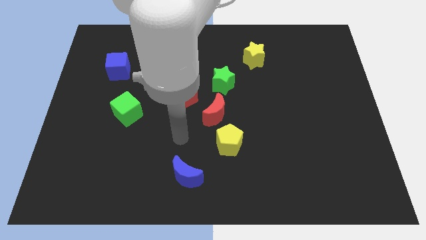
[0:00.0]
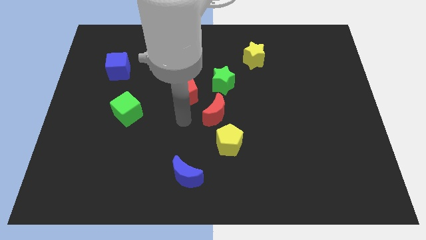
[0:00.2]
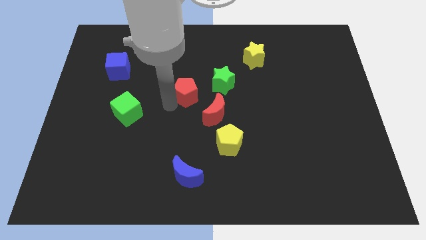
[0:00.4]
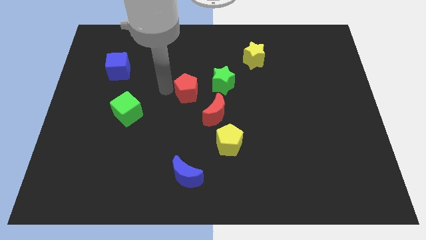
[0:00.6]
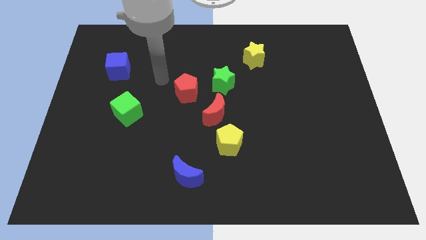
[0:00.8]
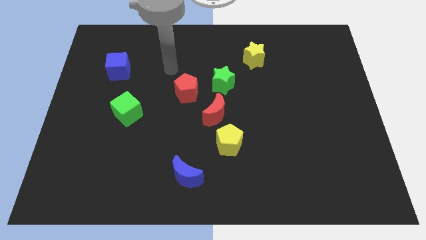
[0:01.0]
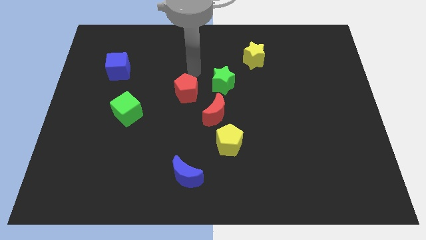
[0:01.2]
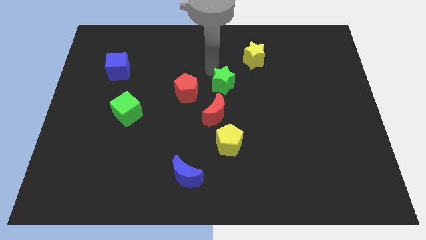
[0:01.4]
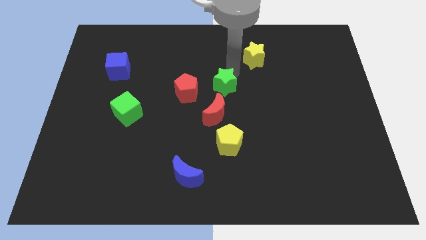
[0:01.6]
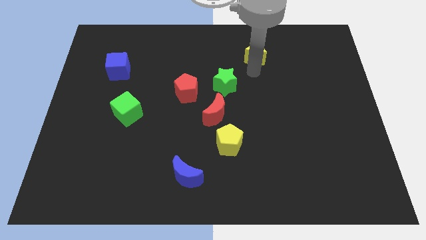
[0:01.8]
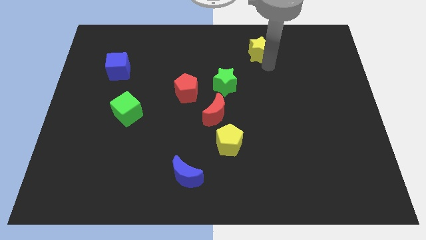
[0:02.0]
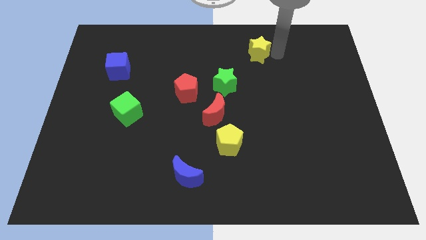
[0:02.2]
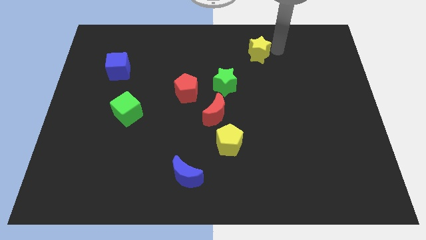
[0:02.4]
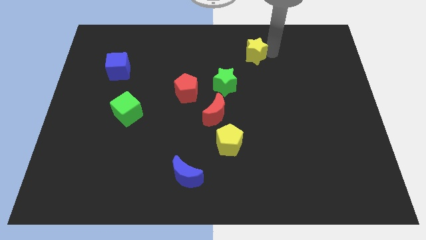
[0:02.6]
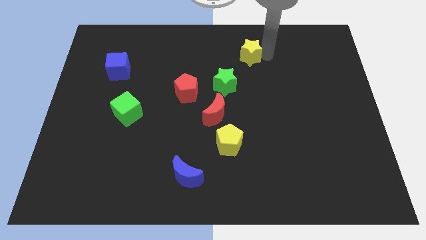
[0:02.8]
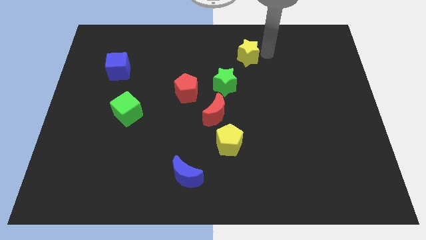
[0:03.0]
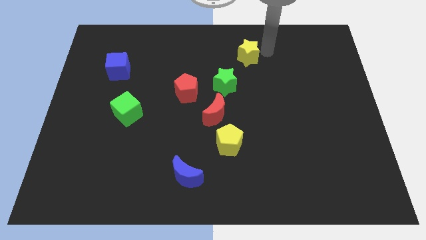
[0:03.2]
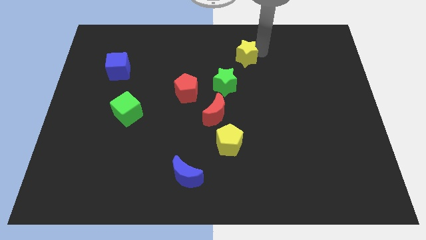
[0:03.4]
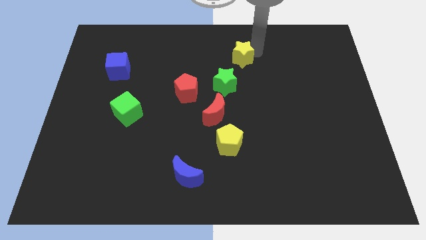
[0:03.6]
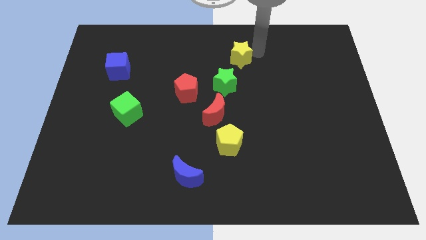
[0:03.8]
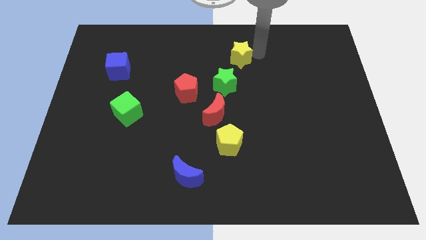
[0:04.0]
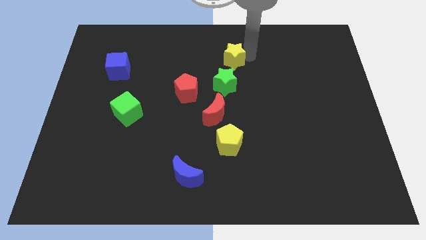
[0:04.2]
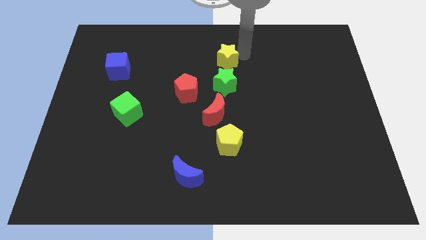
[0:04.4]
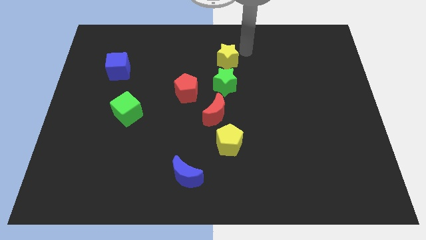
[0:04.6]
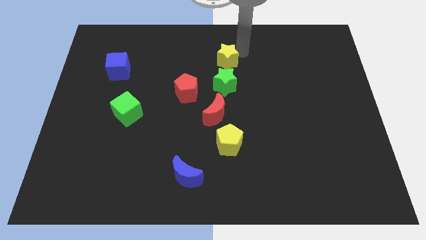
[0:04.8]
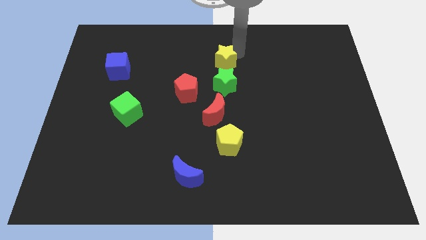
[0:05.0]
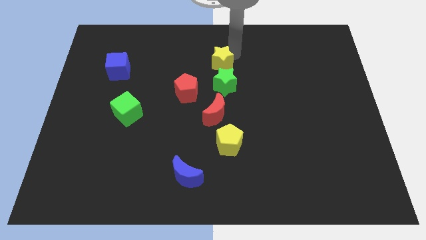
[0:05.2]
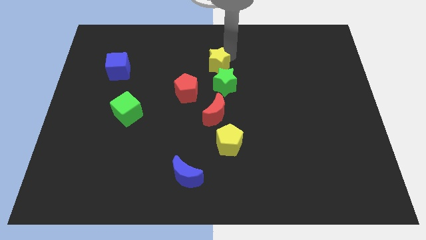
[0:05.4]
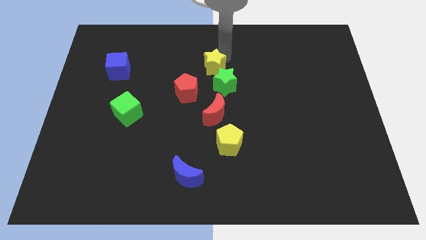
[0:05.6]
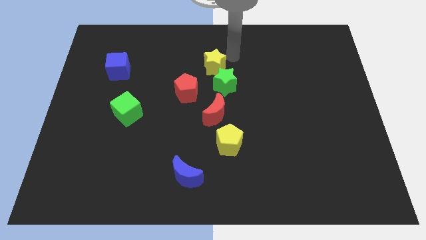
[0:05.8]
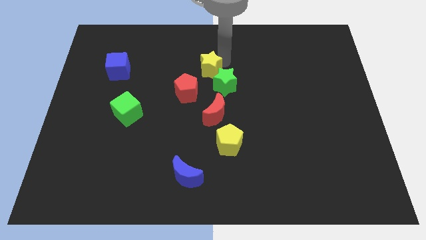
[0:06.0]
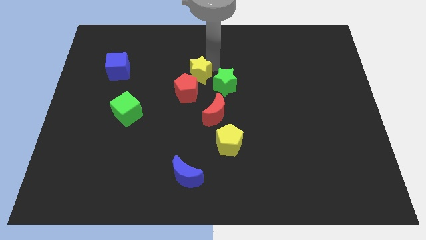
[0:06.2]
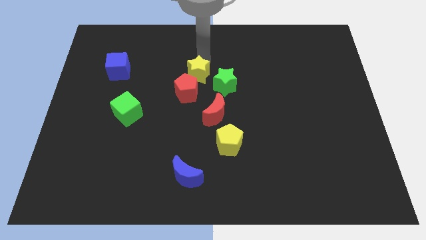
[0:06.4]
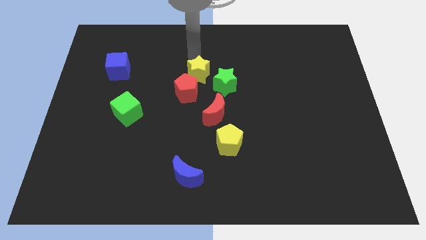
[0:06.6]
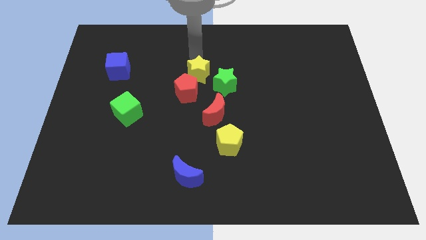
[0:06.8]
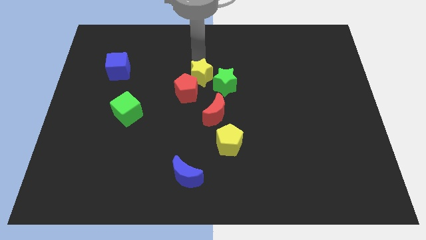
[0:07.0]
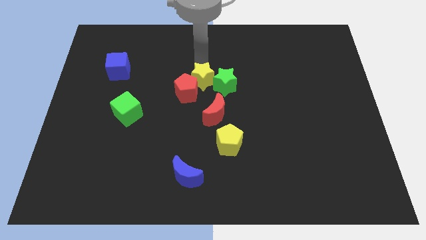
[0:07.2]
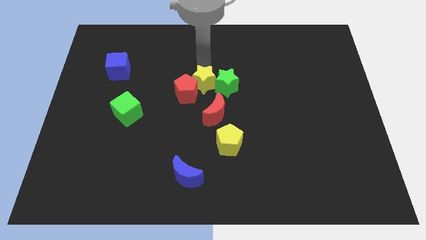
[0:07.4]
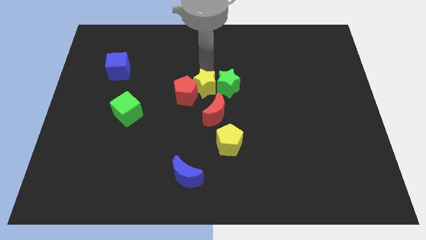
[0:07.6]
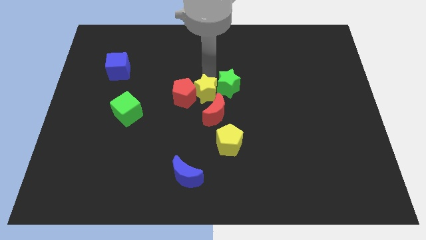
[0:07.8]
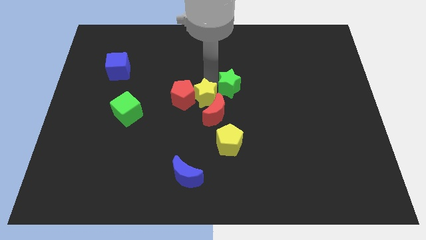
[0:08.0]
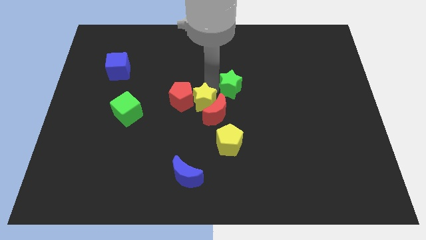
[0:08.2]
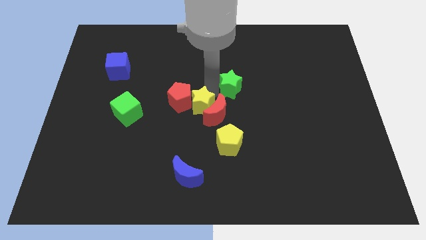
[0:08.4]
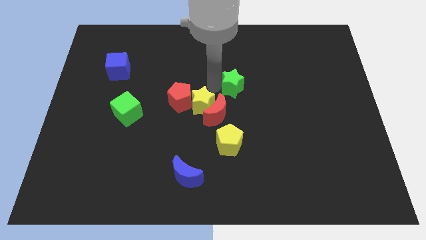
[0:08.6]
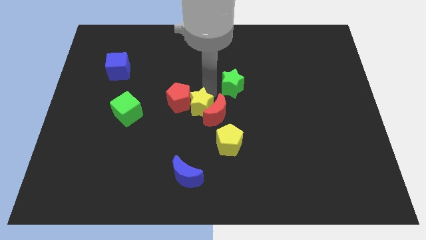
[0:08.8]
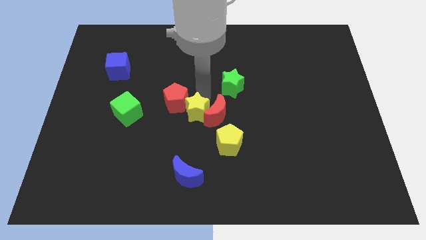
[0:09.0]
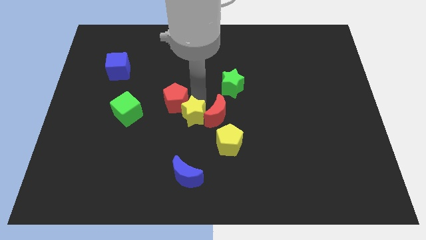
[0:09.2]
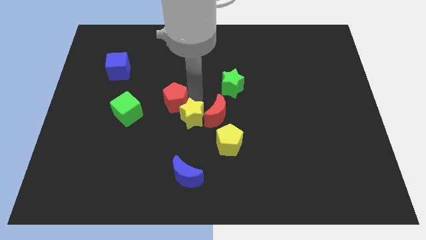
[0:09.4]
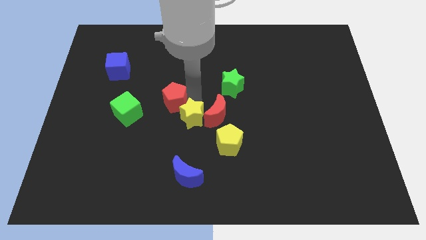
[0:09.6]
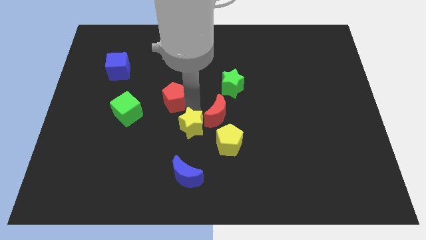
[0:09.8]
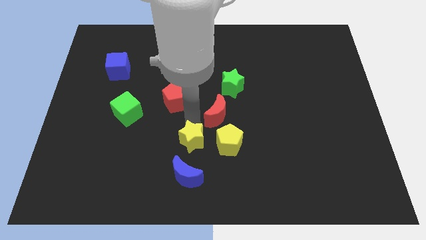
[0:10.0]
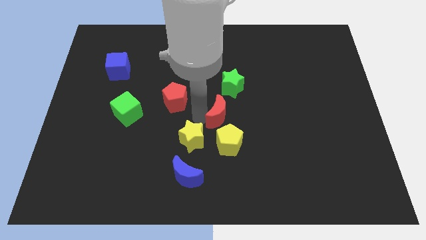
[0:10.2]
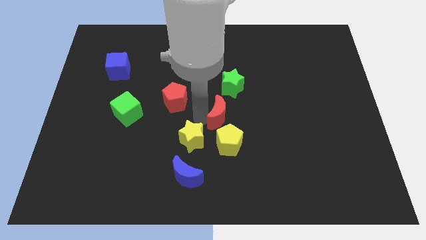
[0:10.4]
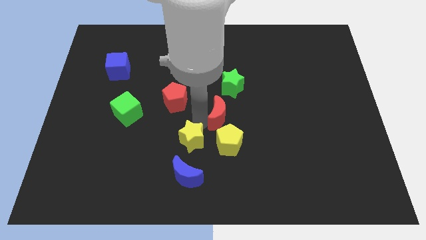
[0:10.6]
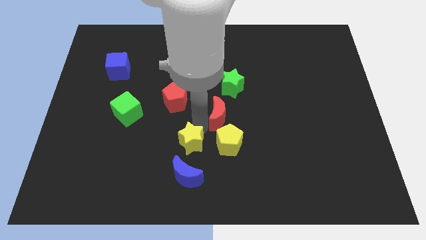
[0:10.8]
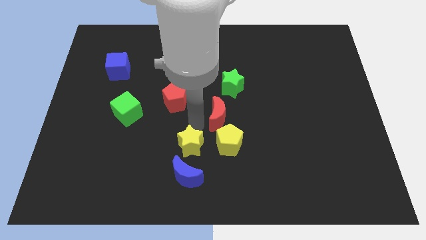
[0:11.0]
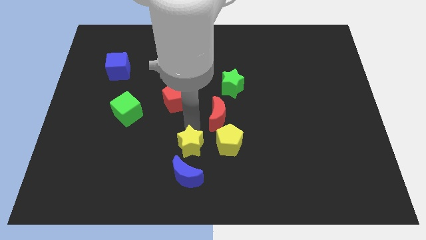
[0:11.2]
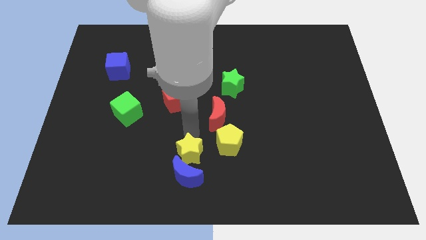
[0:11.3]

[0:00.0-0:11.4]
push the yellow star close to the blue moon

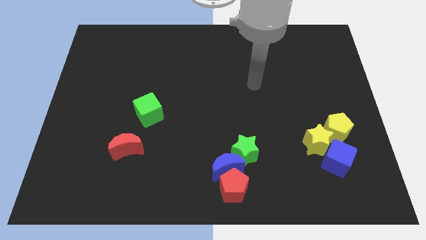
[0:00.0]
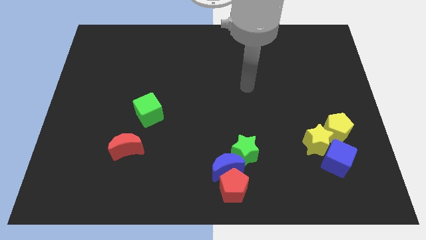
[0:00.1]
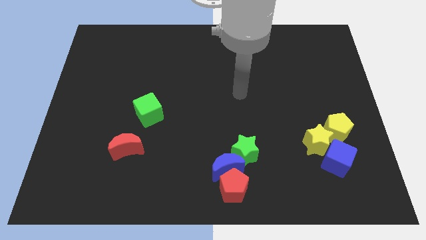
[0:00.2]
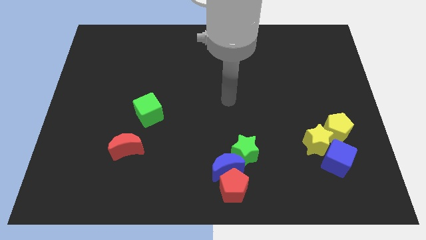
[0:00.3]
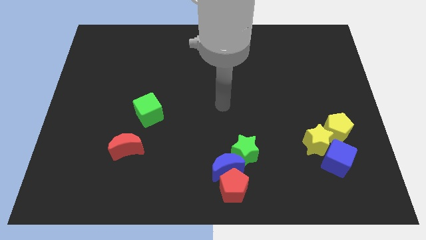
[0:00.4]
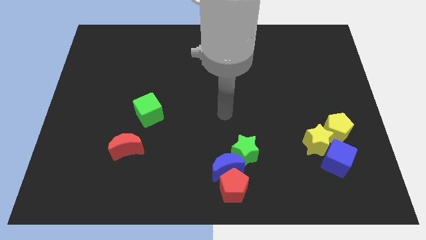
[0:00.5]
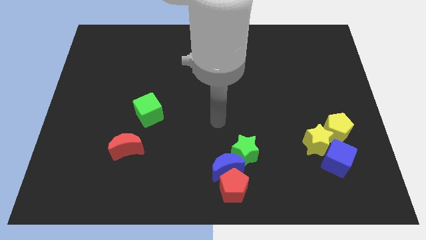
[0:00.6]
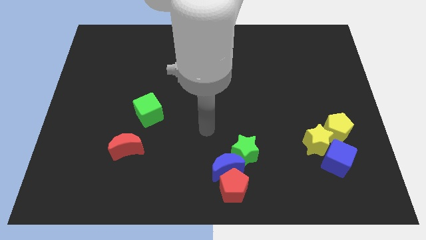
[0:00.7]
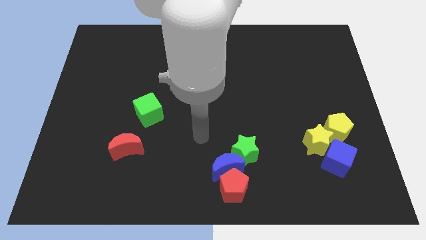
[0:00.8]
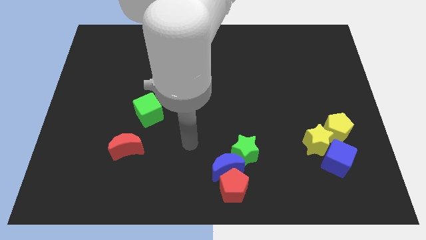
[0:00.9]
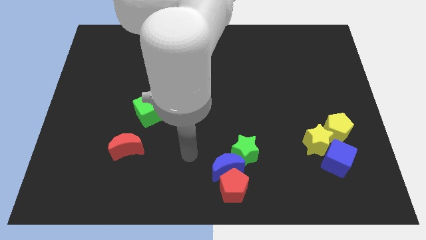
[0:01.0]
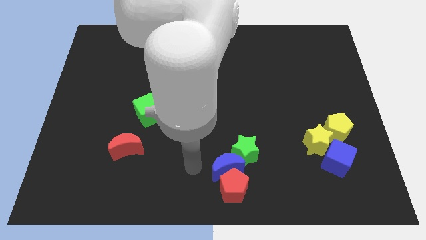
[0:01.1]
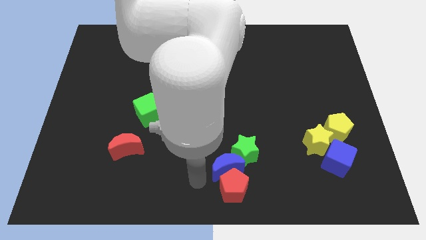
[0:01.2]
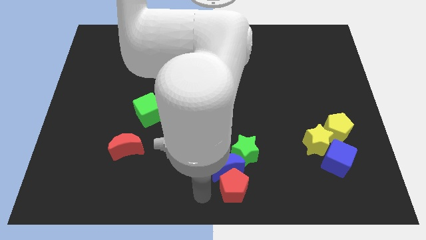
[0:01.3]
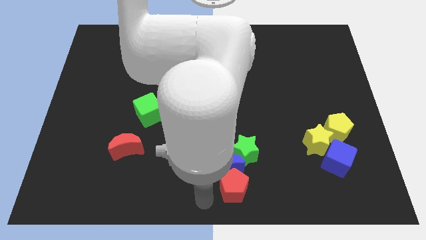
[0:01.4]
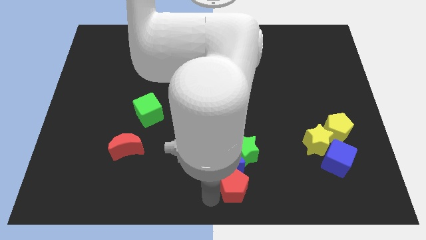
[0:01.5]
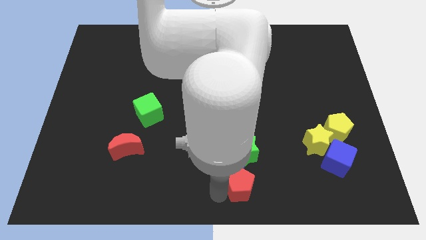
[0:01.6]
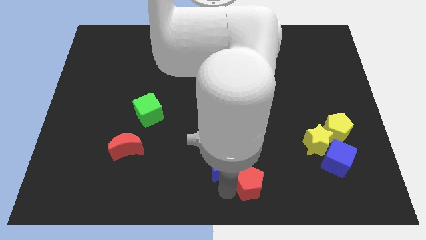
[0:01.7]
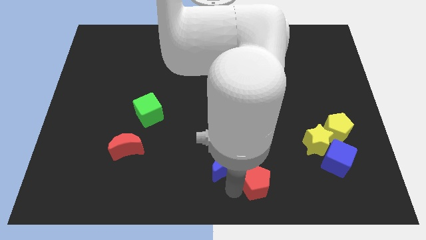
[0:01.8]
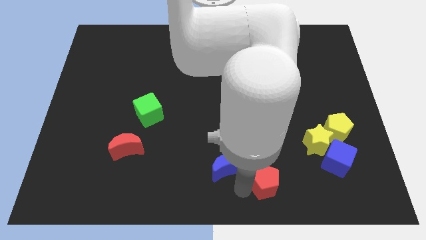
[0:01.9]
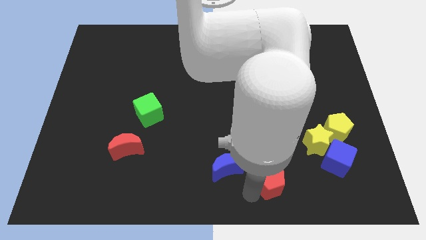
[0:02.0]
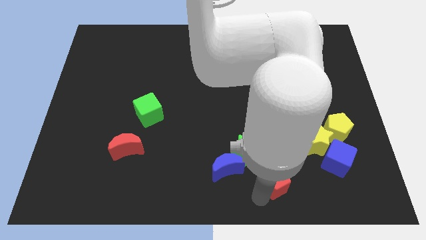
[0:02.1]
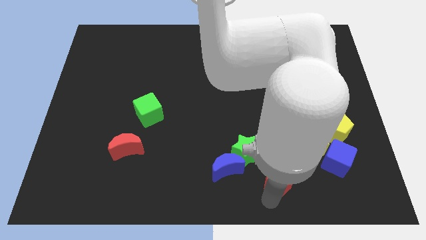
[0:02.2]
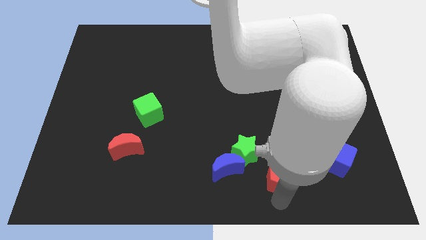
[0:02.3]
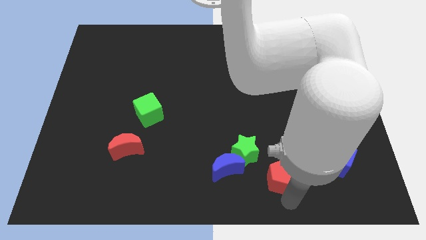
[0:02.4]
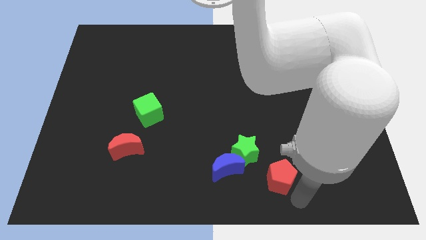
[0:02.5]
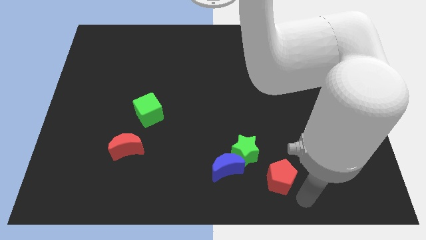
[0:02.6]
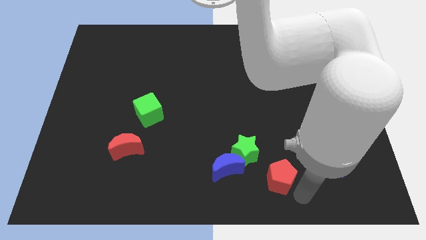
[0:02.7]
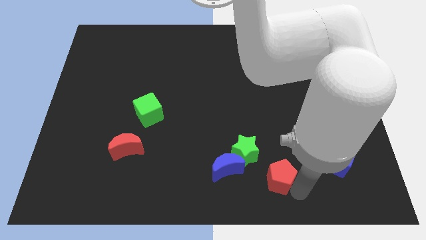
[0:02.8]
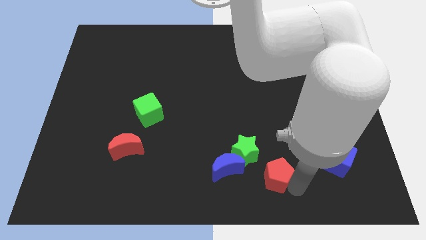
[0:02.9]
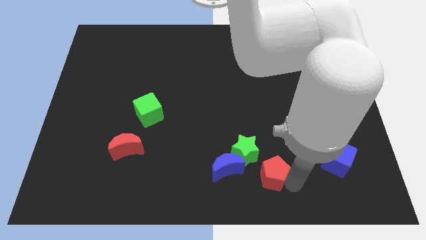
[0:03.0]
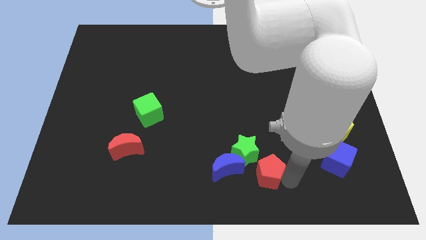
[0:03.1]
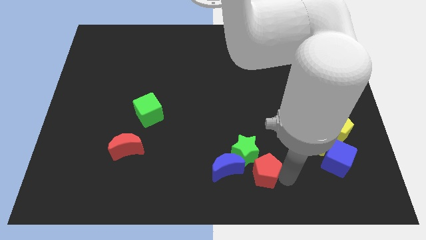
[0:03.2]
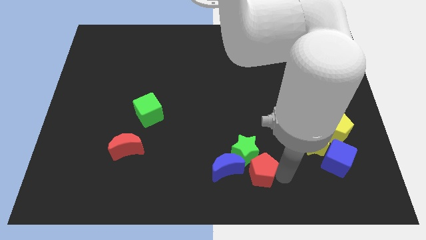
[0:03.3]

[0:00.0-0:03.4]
move the red pentagon close to the green star
